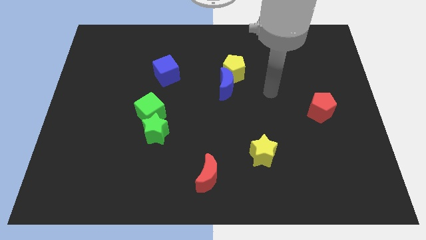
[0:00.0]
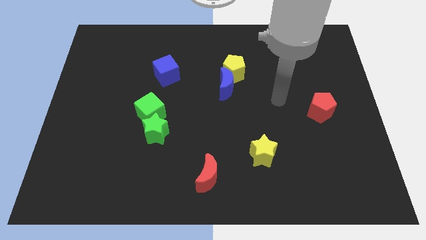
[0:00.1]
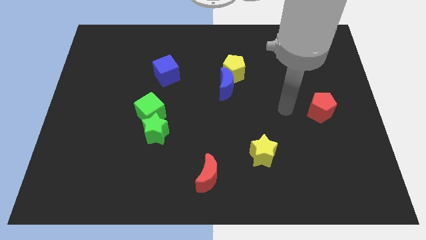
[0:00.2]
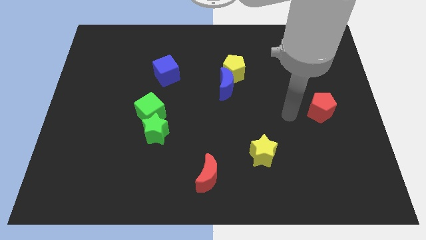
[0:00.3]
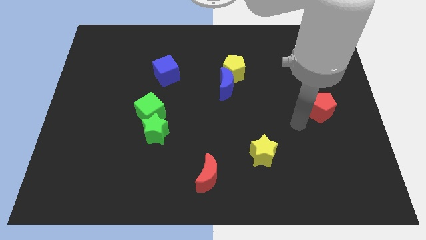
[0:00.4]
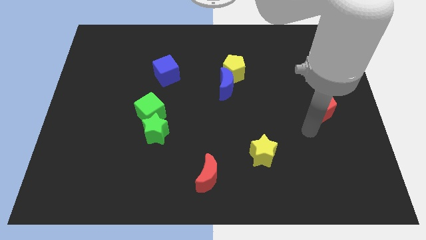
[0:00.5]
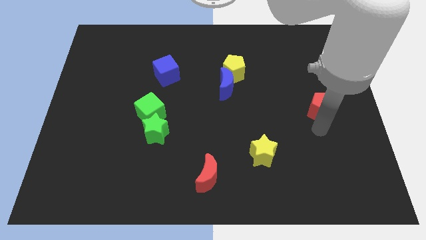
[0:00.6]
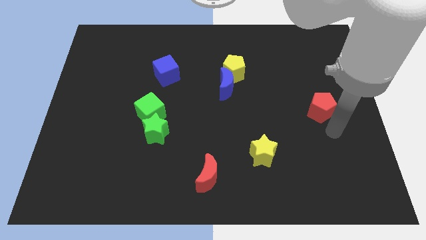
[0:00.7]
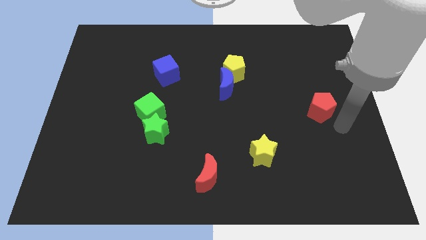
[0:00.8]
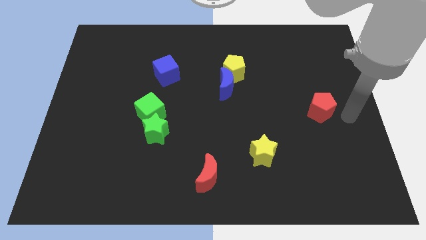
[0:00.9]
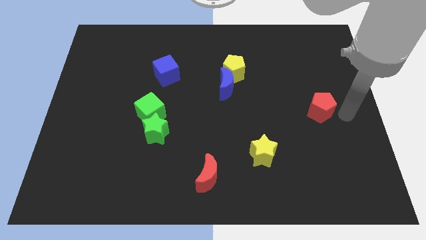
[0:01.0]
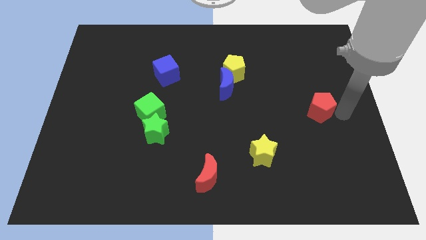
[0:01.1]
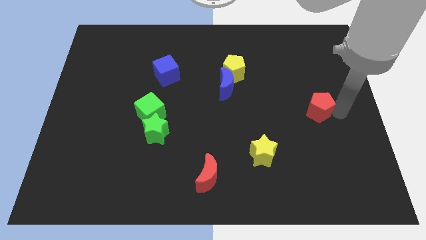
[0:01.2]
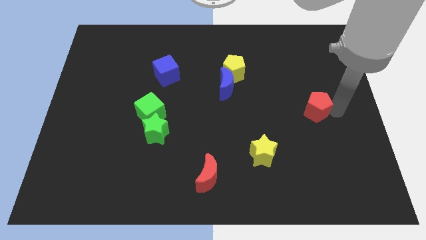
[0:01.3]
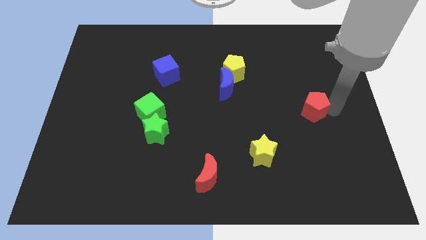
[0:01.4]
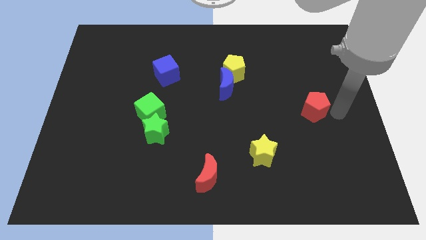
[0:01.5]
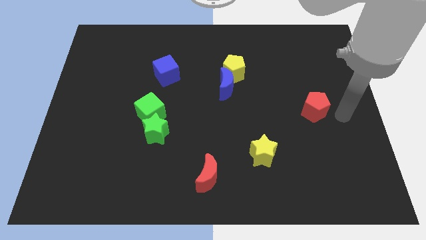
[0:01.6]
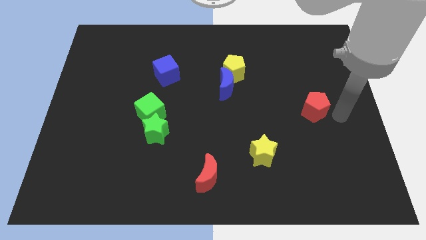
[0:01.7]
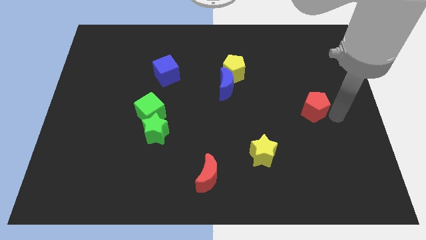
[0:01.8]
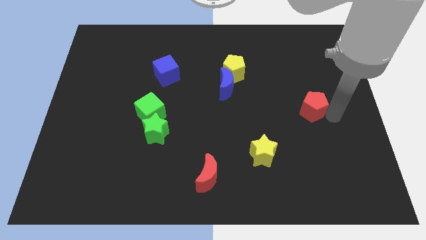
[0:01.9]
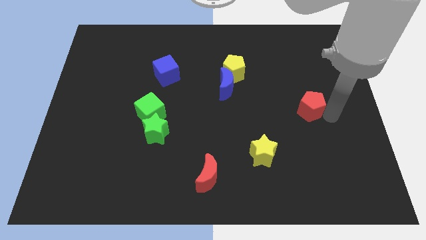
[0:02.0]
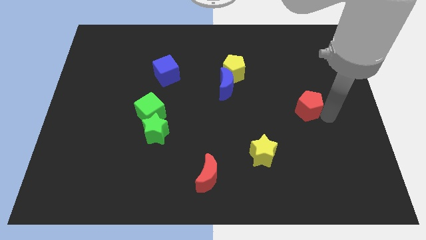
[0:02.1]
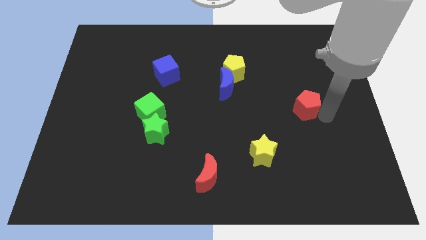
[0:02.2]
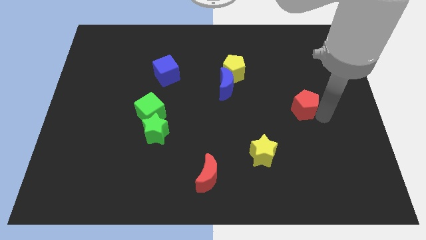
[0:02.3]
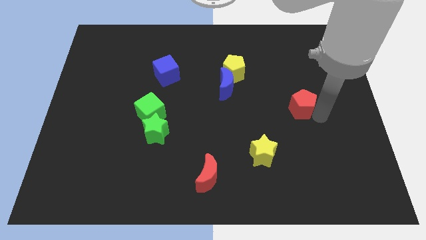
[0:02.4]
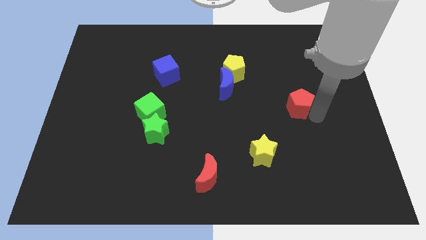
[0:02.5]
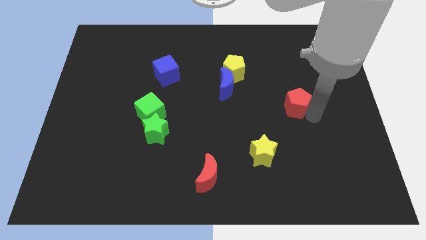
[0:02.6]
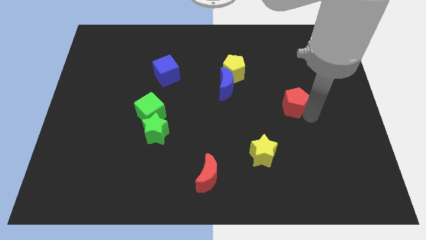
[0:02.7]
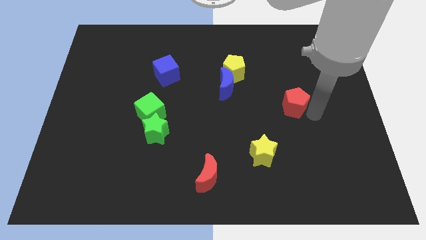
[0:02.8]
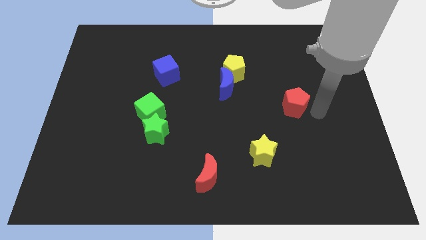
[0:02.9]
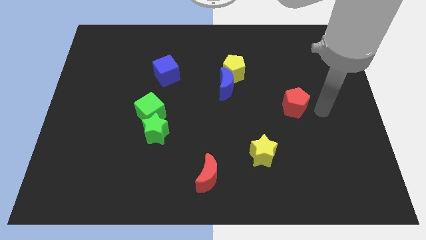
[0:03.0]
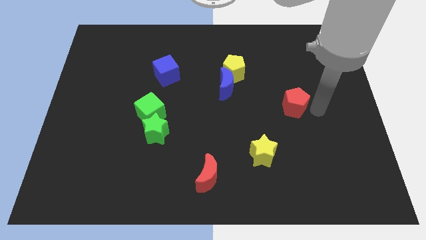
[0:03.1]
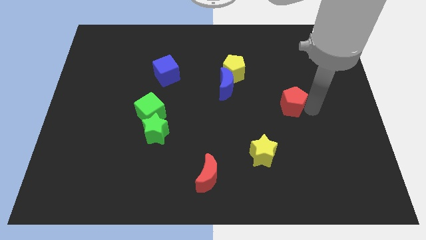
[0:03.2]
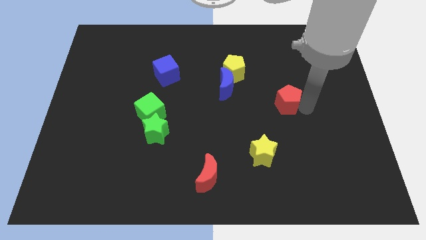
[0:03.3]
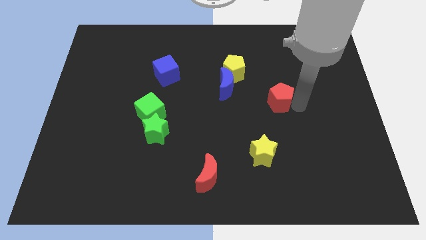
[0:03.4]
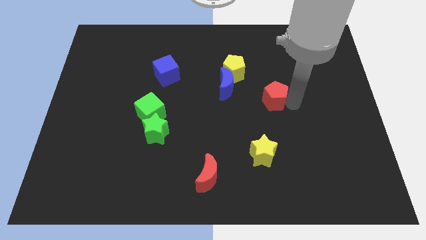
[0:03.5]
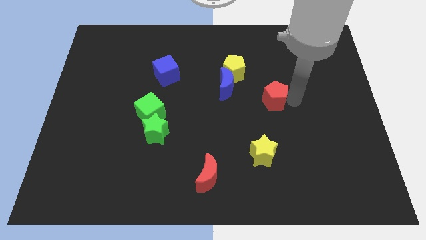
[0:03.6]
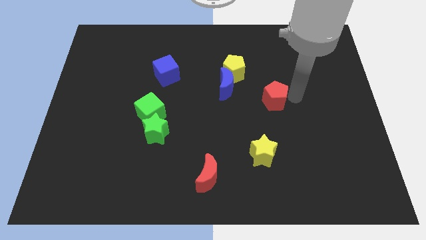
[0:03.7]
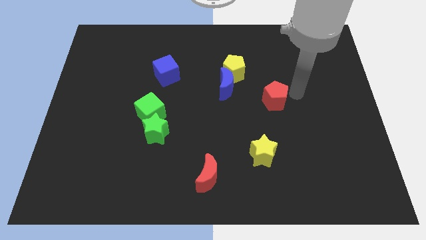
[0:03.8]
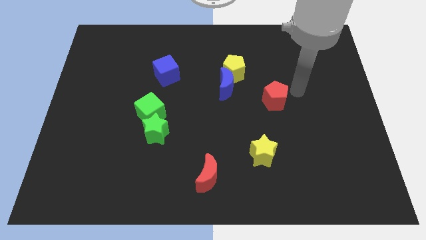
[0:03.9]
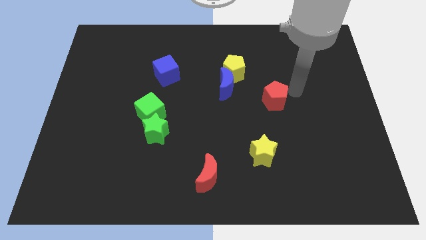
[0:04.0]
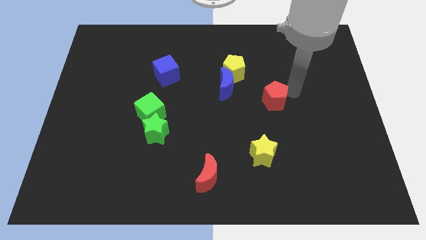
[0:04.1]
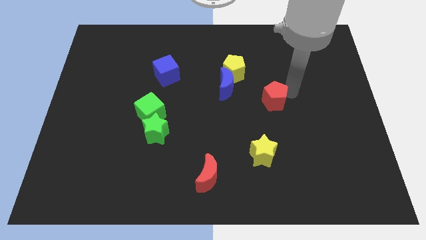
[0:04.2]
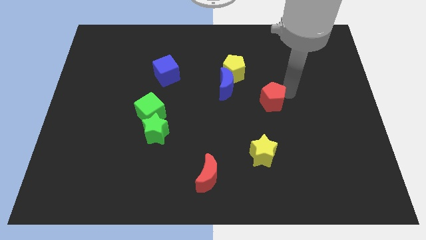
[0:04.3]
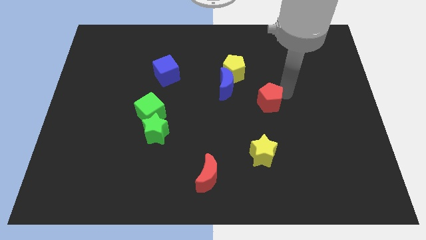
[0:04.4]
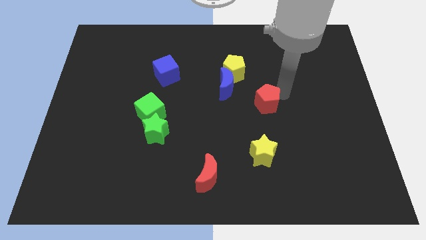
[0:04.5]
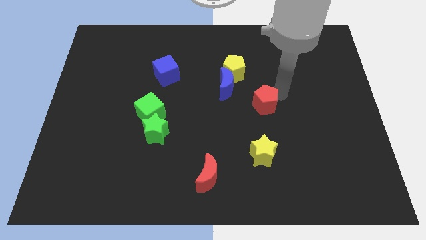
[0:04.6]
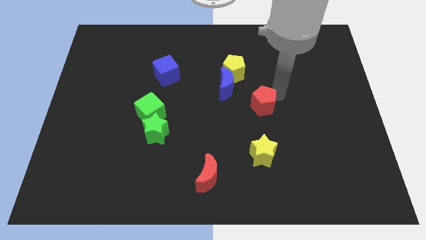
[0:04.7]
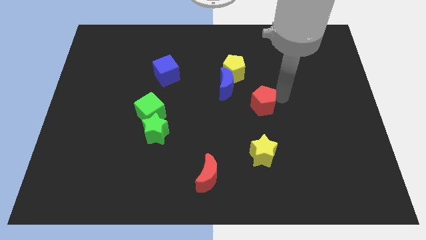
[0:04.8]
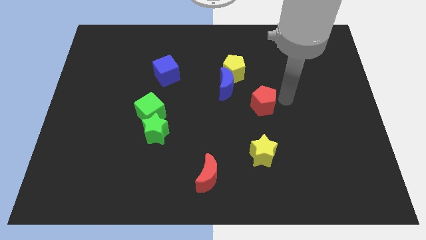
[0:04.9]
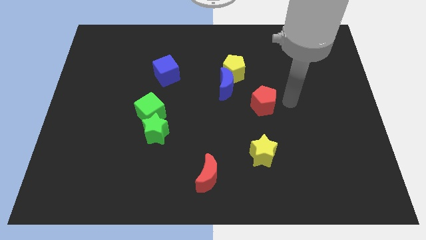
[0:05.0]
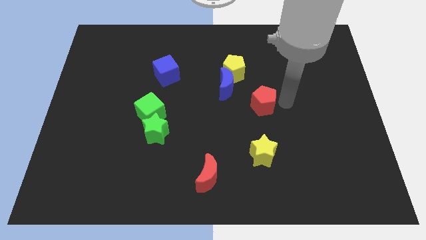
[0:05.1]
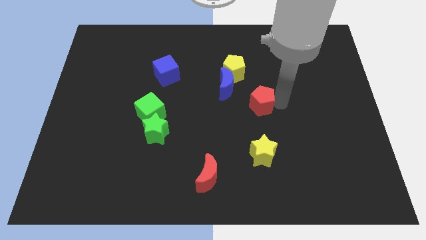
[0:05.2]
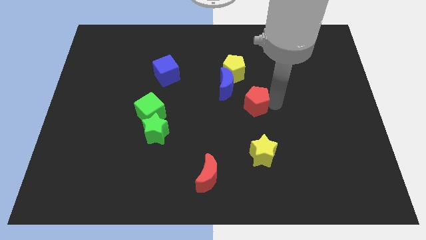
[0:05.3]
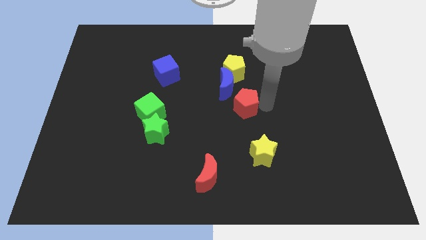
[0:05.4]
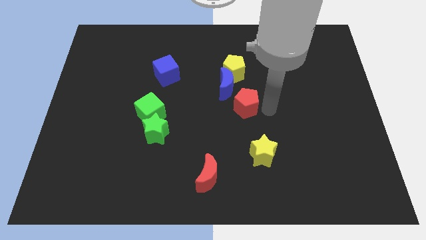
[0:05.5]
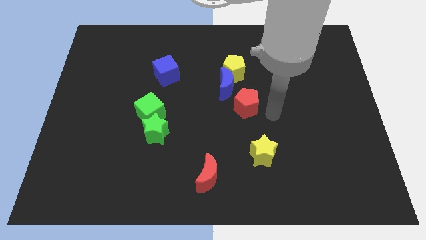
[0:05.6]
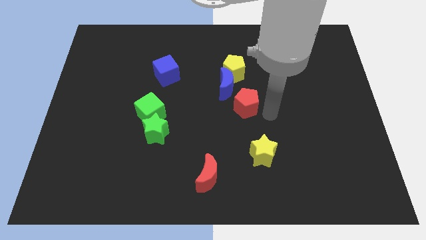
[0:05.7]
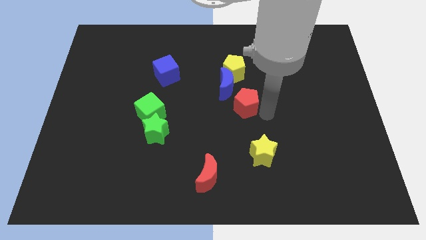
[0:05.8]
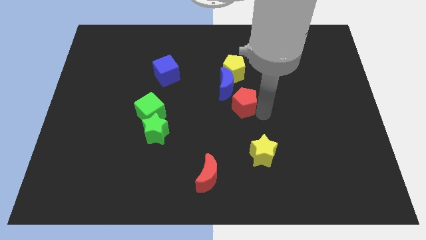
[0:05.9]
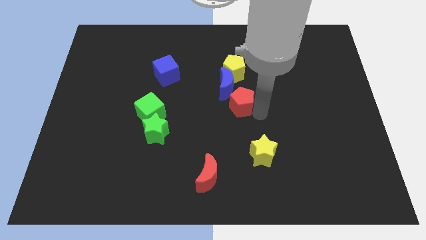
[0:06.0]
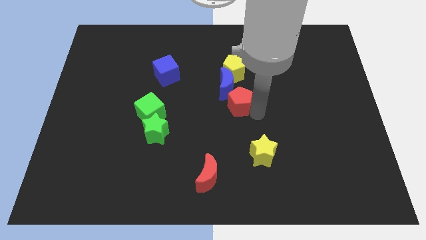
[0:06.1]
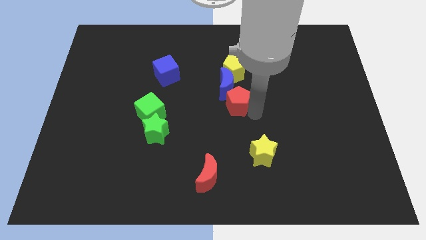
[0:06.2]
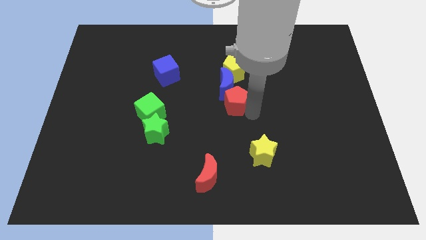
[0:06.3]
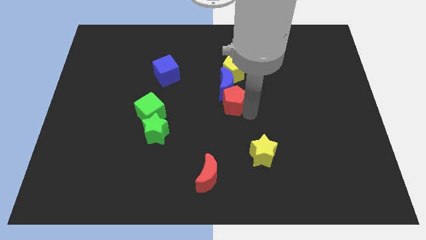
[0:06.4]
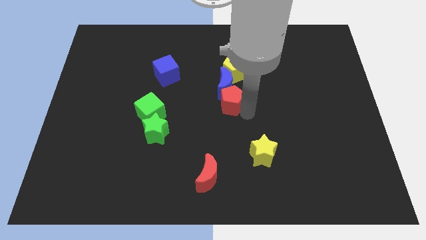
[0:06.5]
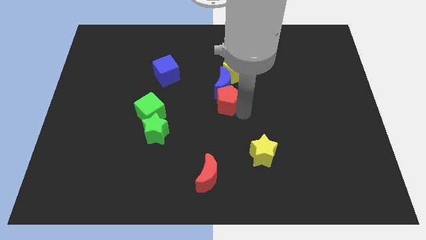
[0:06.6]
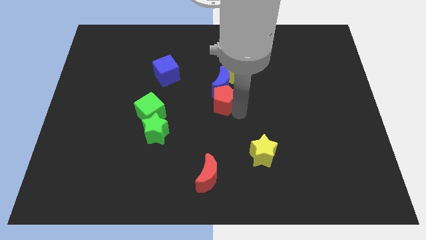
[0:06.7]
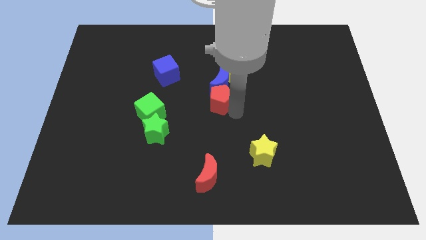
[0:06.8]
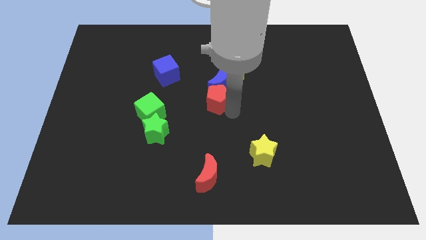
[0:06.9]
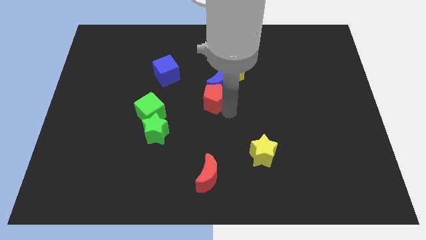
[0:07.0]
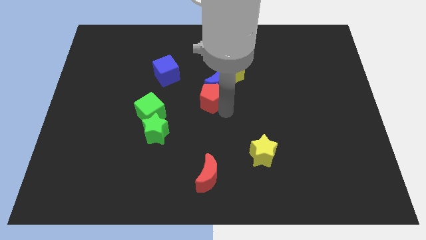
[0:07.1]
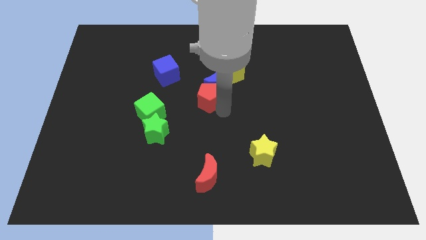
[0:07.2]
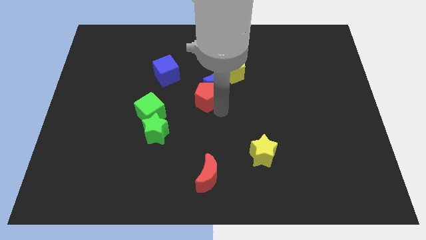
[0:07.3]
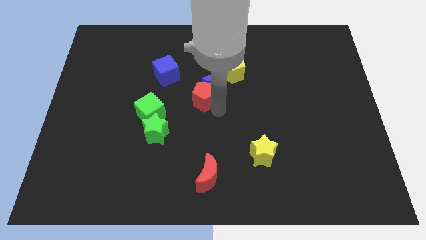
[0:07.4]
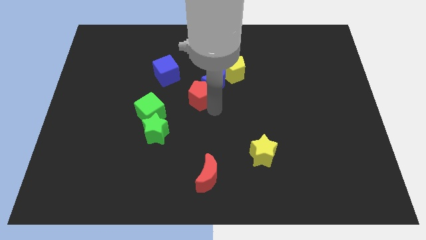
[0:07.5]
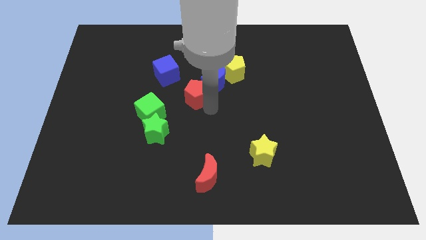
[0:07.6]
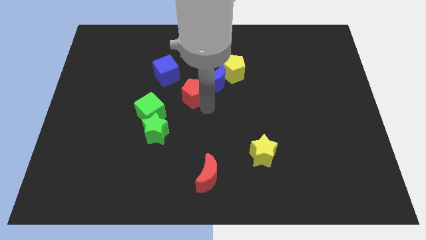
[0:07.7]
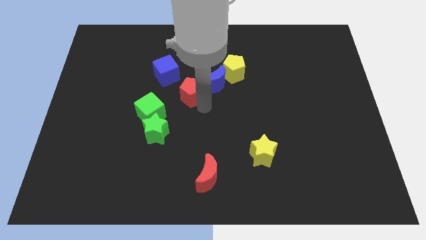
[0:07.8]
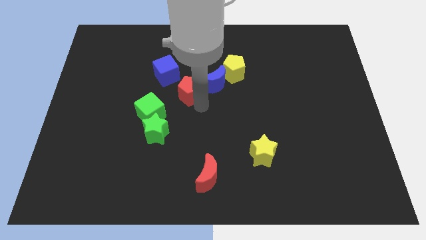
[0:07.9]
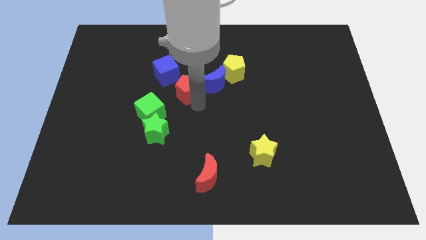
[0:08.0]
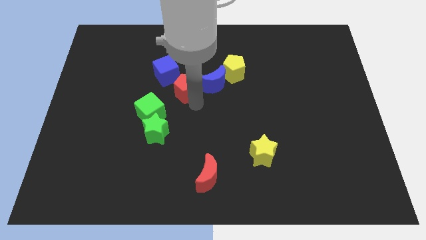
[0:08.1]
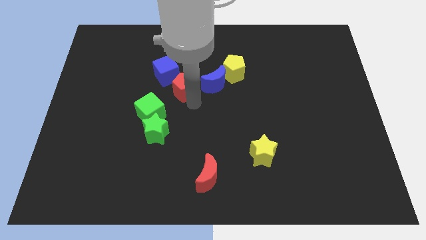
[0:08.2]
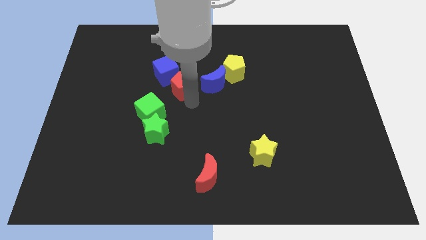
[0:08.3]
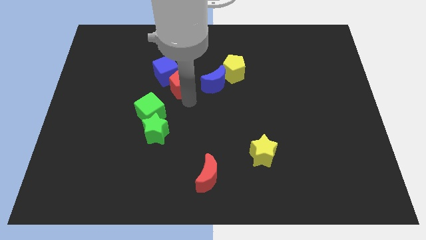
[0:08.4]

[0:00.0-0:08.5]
put the red pentagon towards the blue cube
